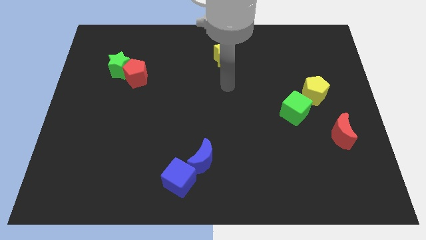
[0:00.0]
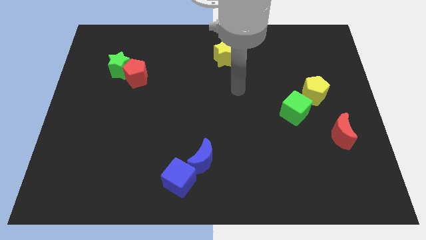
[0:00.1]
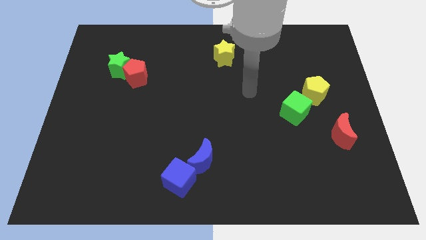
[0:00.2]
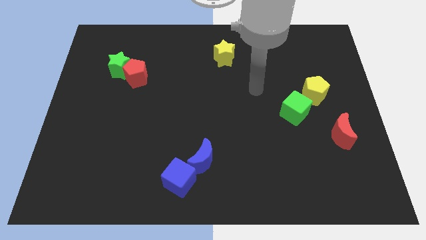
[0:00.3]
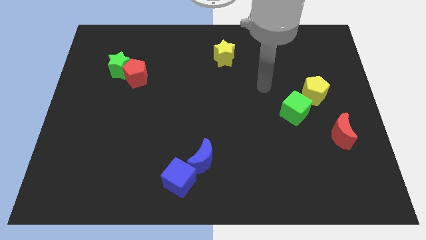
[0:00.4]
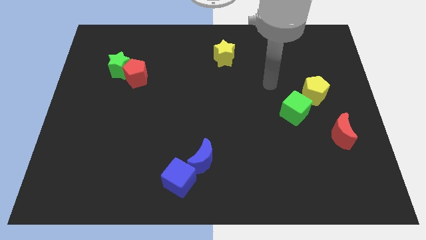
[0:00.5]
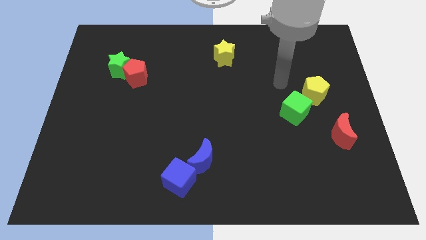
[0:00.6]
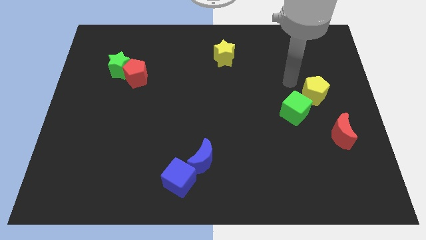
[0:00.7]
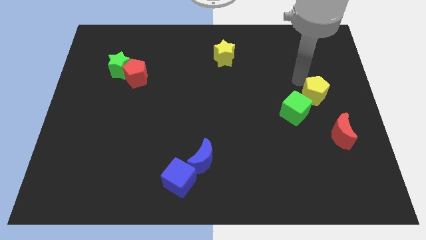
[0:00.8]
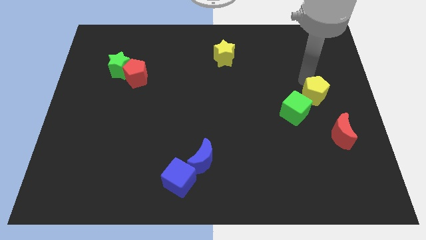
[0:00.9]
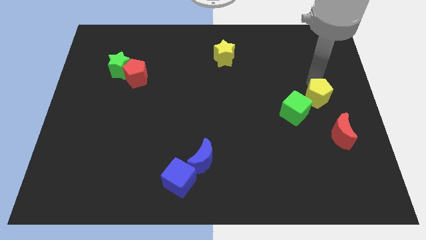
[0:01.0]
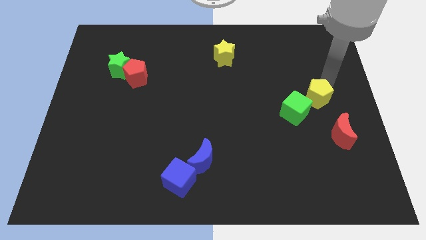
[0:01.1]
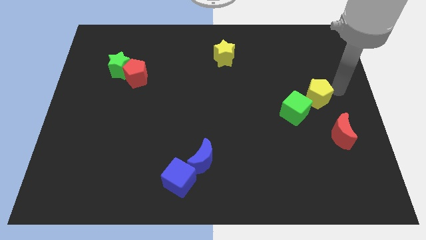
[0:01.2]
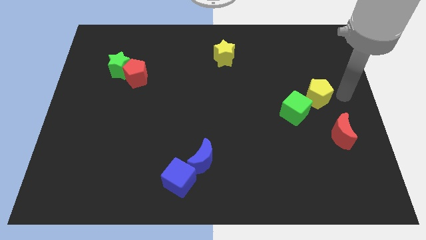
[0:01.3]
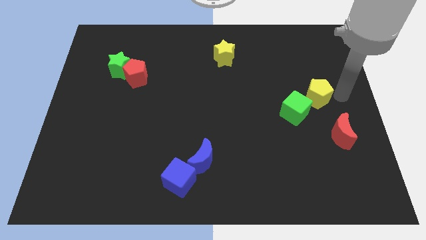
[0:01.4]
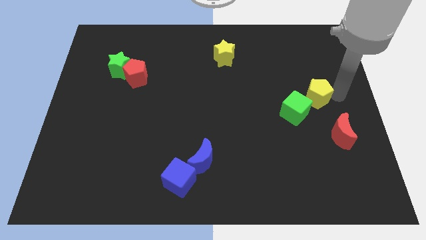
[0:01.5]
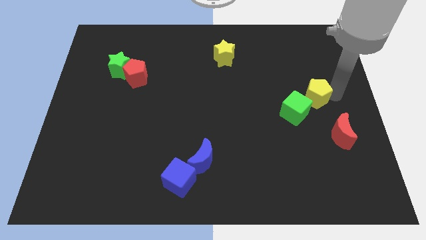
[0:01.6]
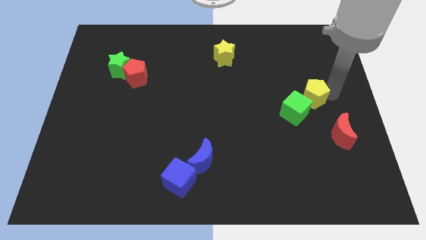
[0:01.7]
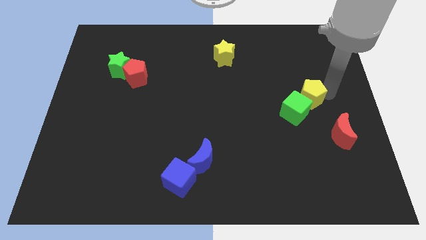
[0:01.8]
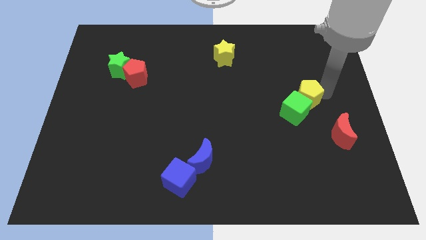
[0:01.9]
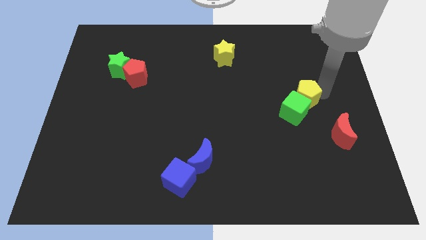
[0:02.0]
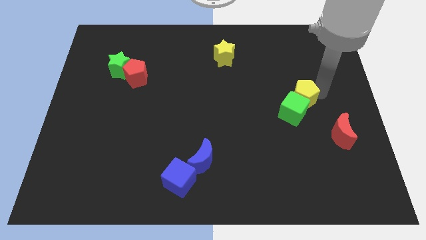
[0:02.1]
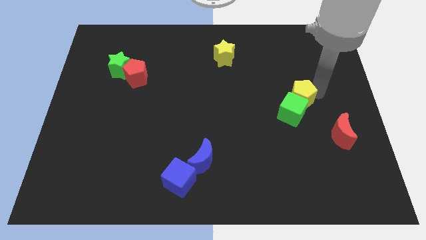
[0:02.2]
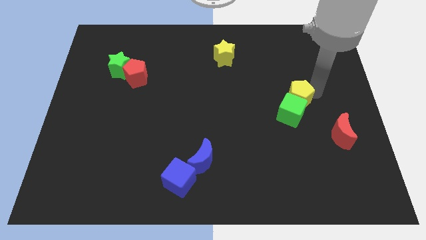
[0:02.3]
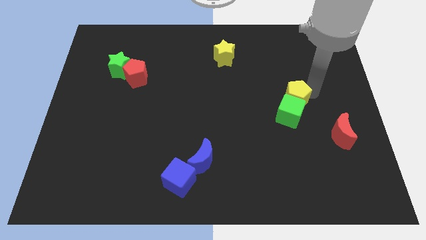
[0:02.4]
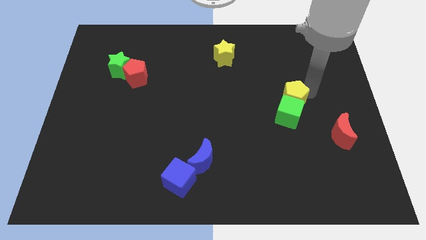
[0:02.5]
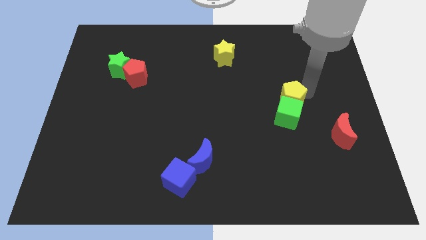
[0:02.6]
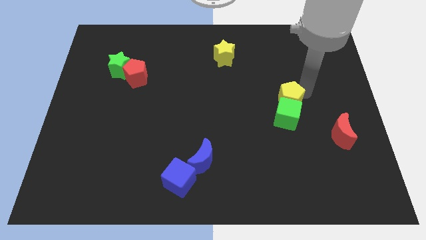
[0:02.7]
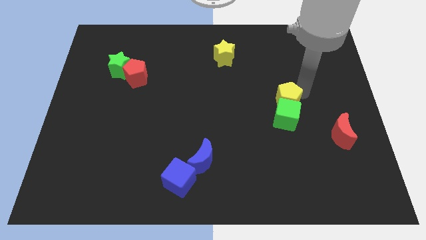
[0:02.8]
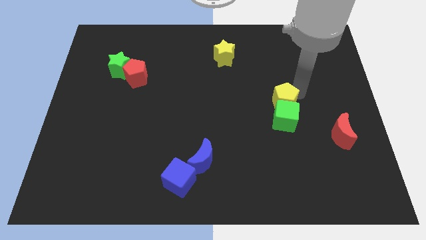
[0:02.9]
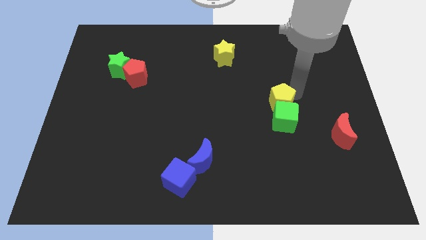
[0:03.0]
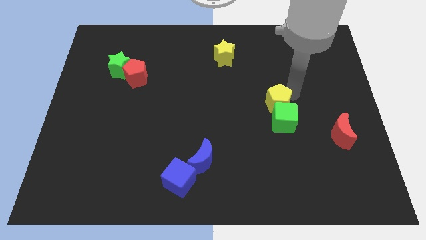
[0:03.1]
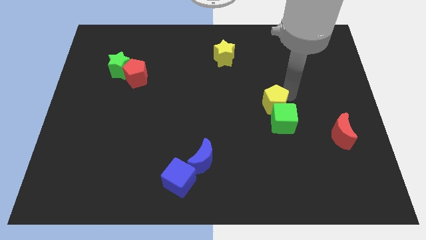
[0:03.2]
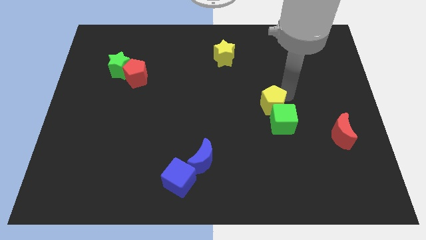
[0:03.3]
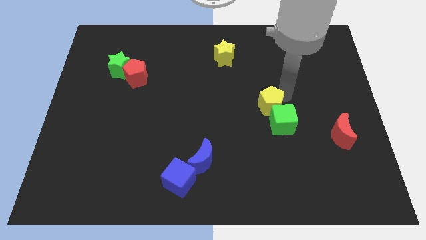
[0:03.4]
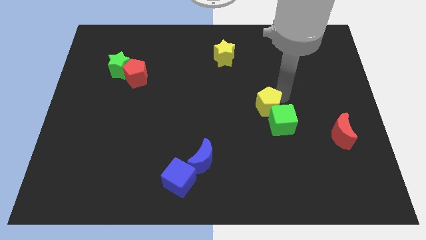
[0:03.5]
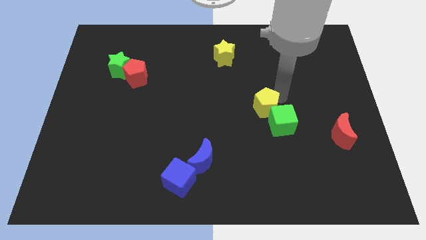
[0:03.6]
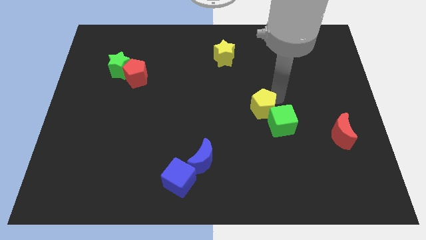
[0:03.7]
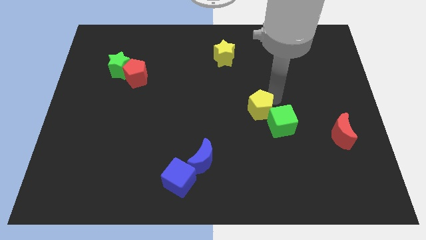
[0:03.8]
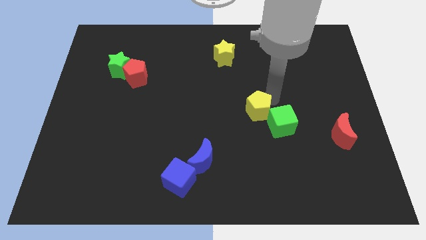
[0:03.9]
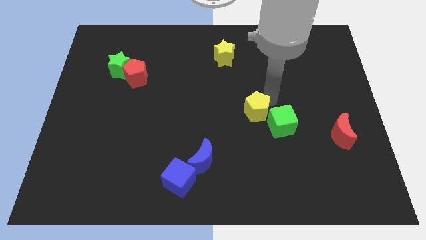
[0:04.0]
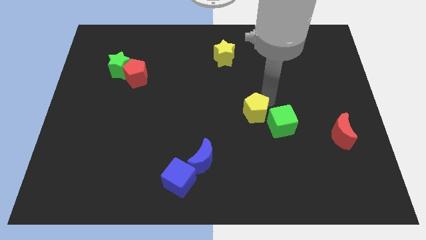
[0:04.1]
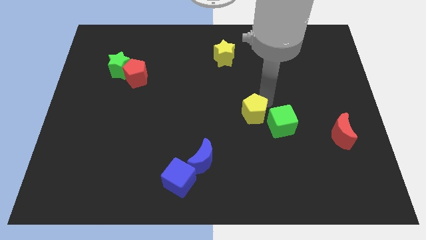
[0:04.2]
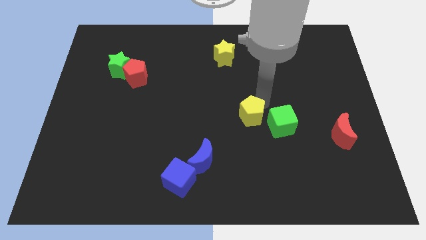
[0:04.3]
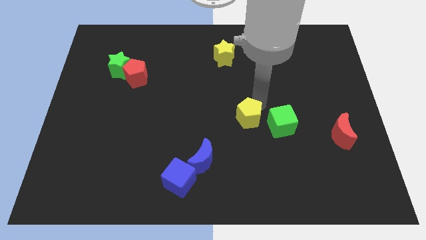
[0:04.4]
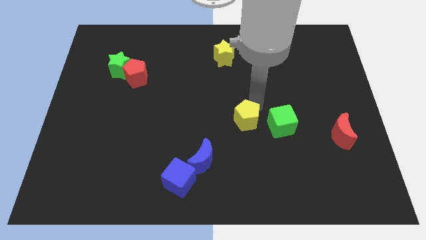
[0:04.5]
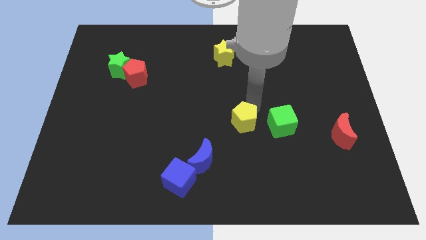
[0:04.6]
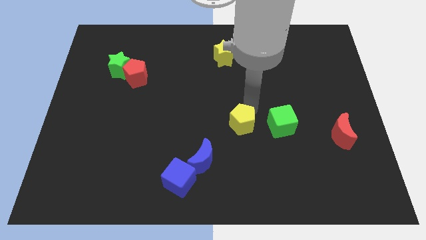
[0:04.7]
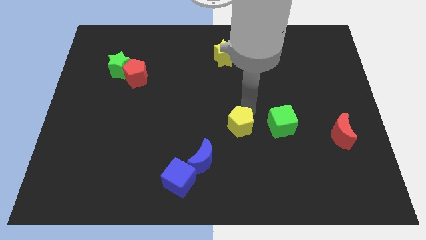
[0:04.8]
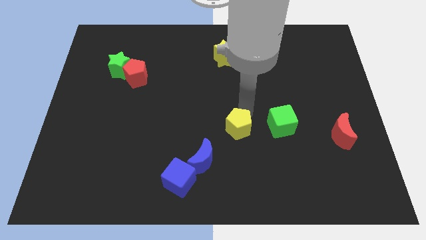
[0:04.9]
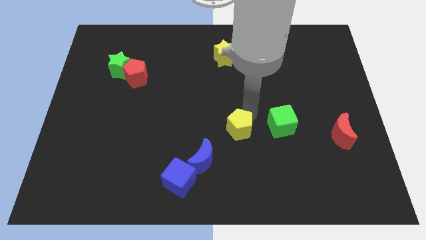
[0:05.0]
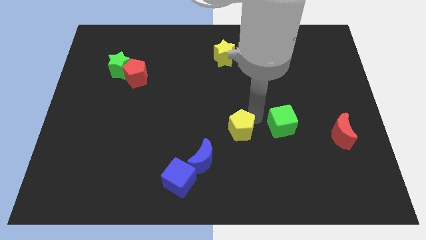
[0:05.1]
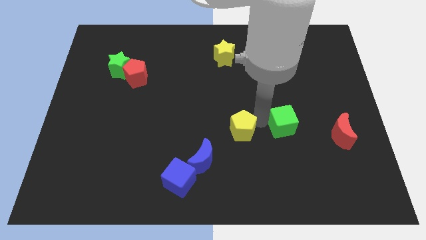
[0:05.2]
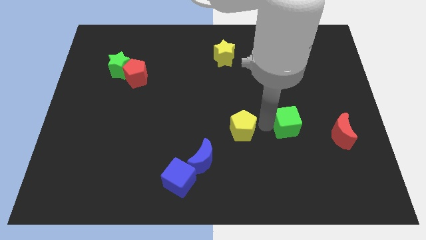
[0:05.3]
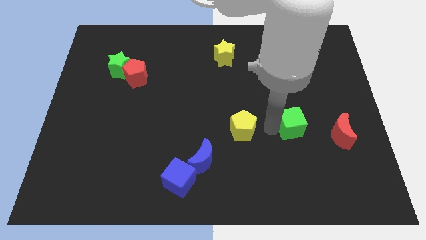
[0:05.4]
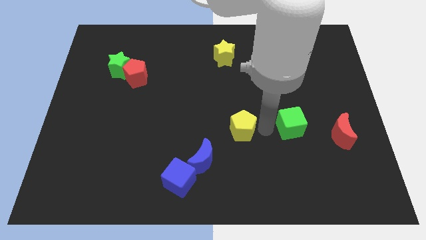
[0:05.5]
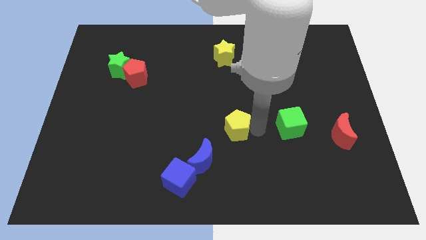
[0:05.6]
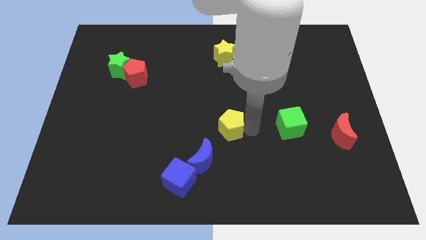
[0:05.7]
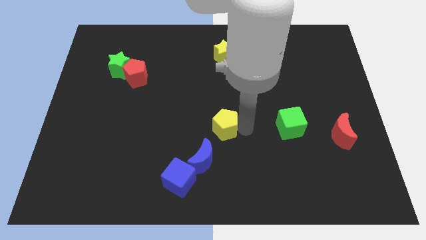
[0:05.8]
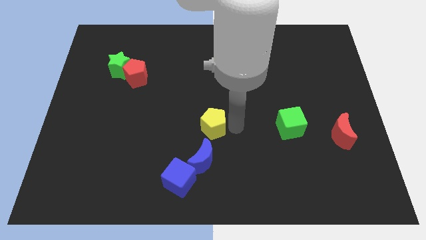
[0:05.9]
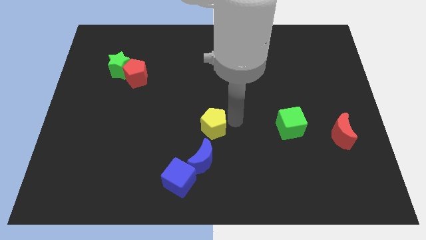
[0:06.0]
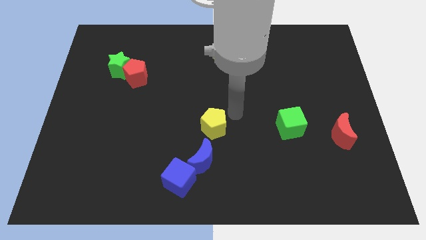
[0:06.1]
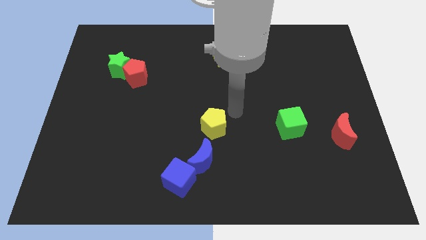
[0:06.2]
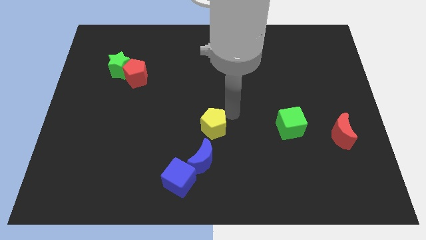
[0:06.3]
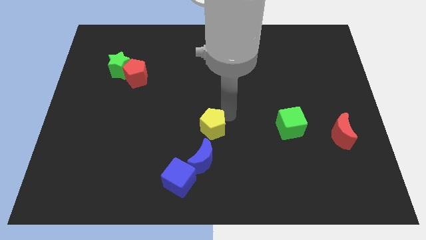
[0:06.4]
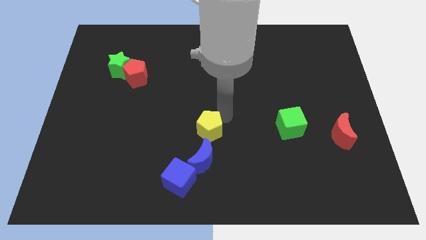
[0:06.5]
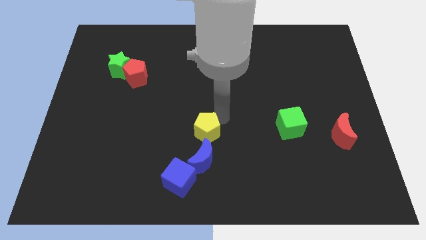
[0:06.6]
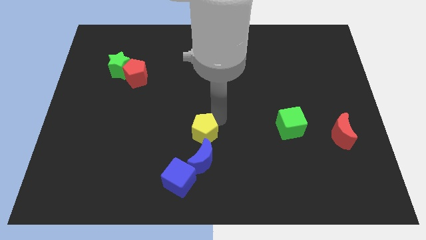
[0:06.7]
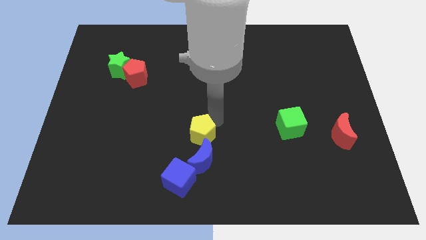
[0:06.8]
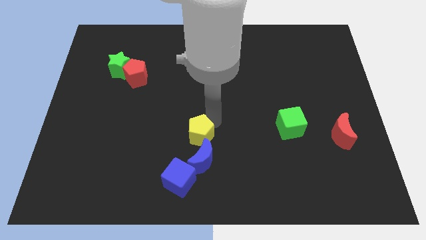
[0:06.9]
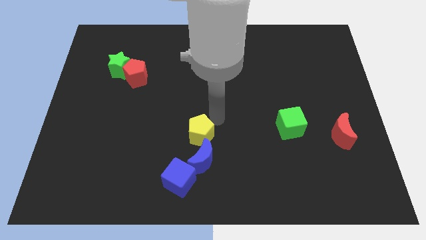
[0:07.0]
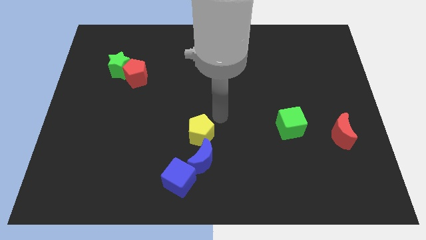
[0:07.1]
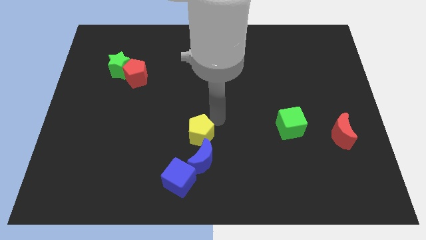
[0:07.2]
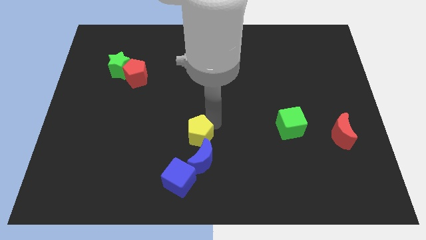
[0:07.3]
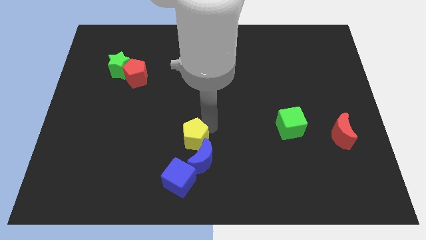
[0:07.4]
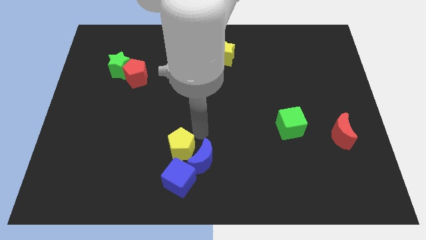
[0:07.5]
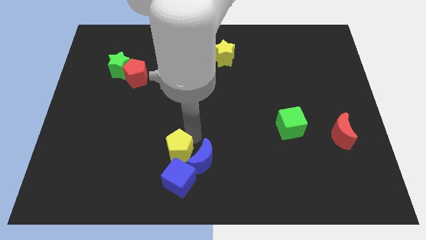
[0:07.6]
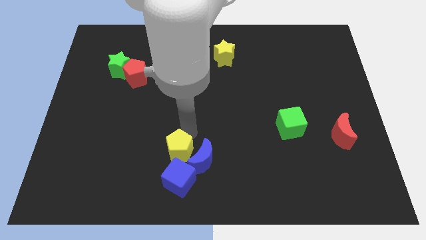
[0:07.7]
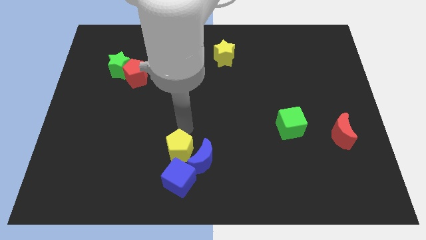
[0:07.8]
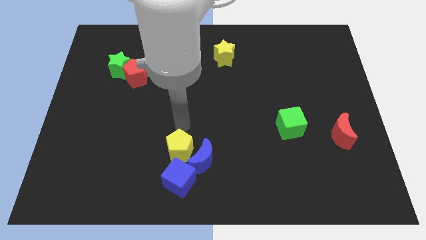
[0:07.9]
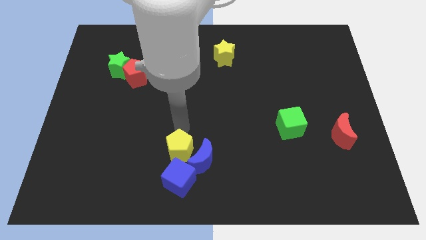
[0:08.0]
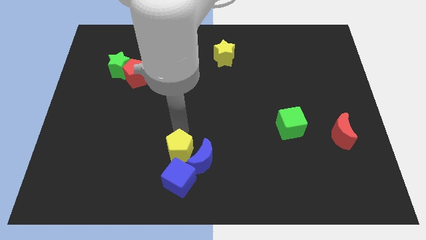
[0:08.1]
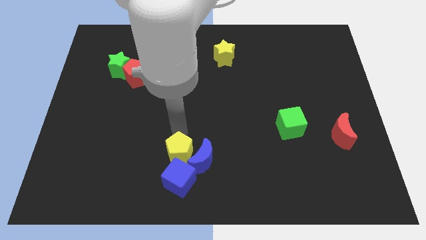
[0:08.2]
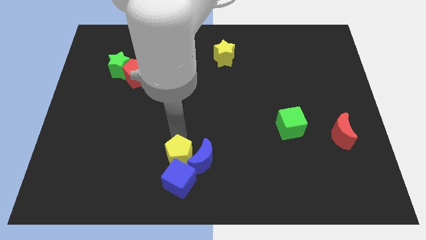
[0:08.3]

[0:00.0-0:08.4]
move the yellow pentagon next to the blue cube
